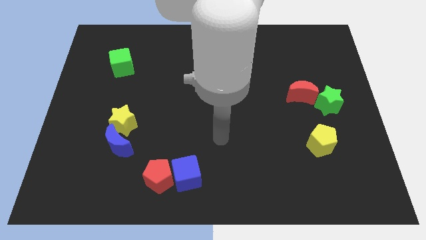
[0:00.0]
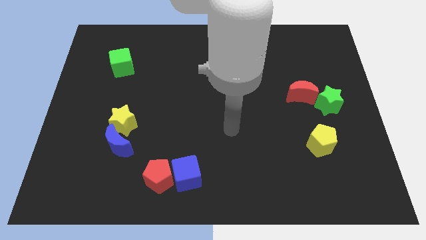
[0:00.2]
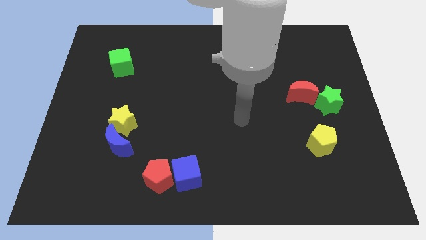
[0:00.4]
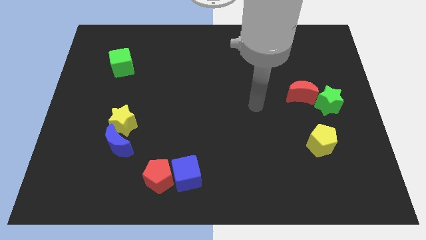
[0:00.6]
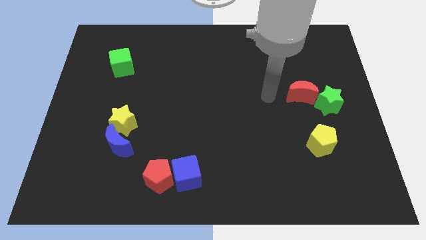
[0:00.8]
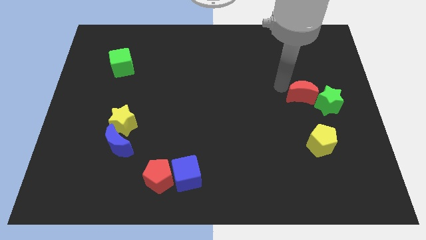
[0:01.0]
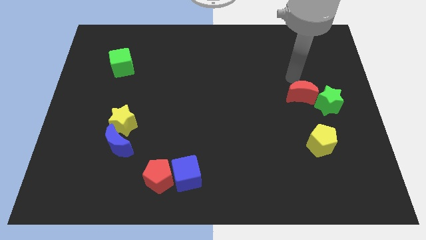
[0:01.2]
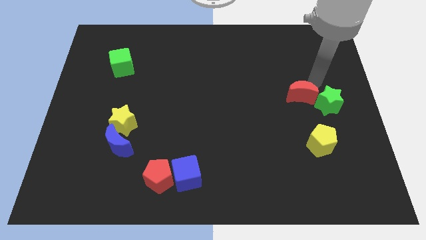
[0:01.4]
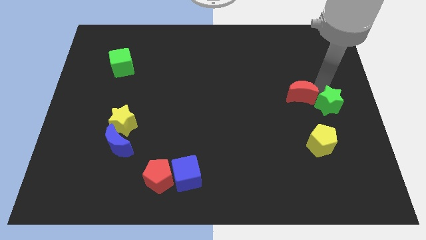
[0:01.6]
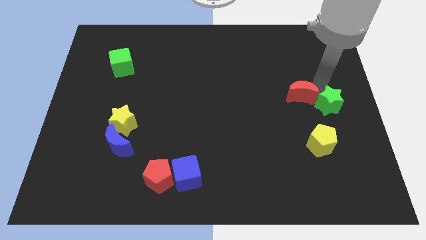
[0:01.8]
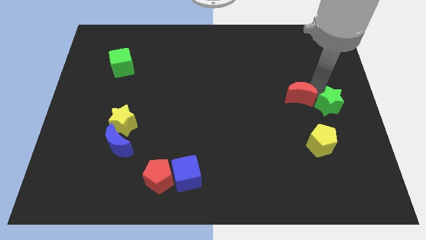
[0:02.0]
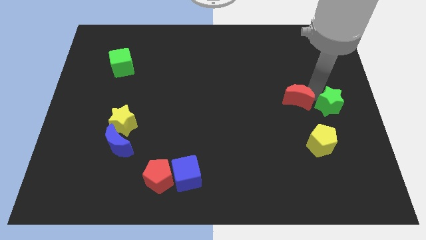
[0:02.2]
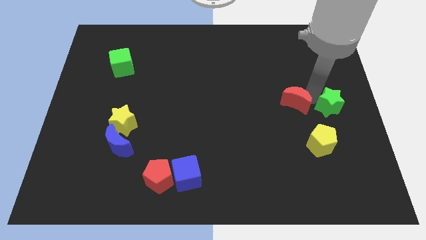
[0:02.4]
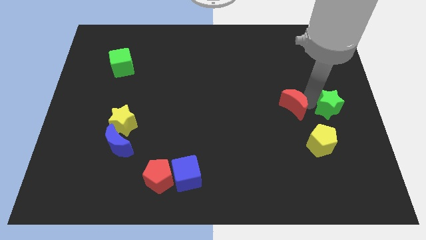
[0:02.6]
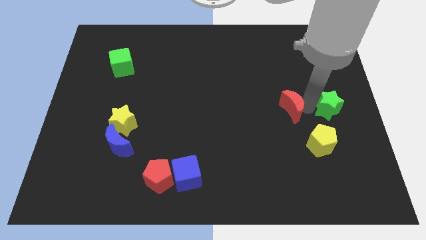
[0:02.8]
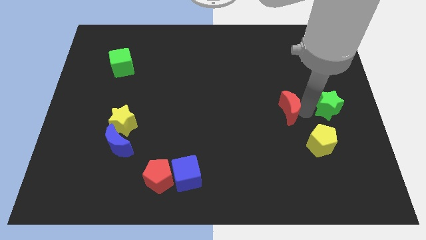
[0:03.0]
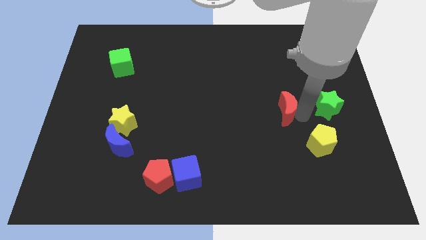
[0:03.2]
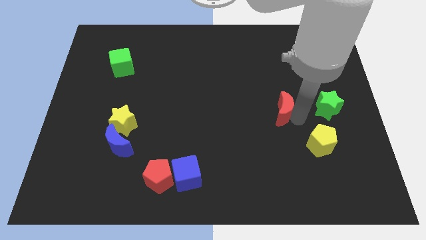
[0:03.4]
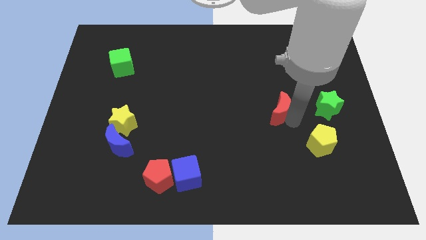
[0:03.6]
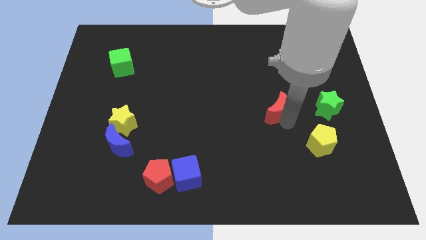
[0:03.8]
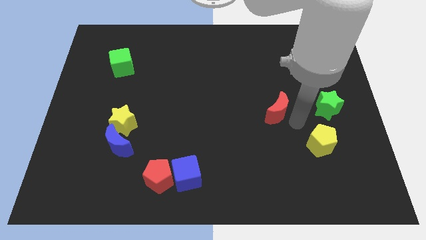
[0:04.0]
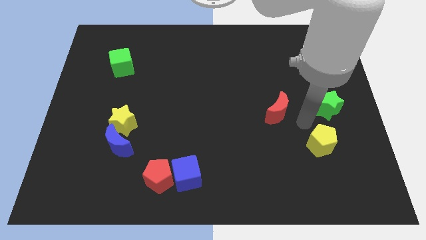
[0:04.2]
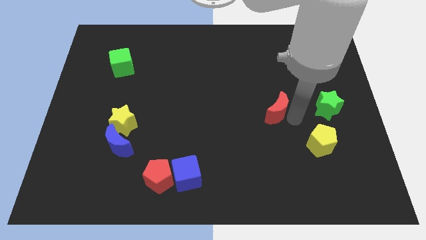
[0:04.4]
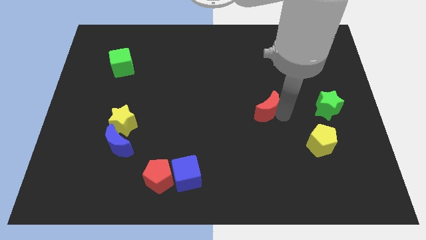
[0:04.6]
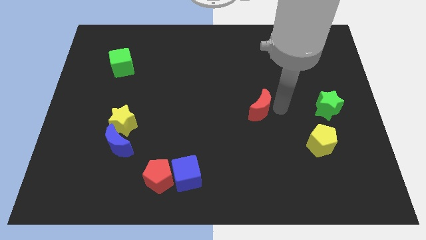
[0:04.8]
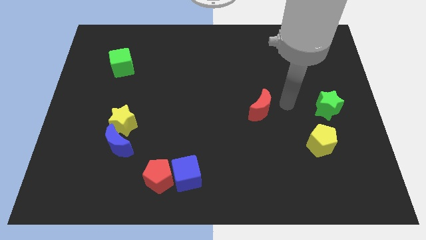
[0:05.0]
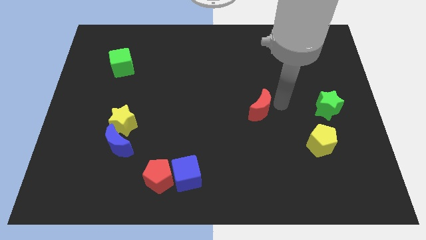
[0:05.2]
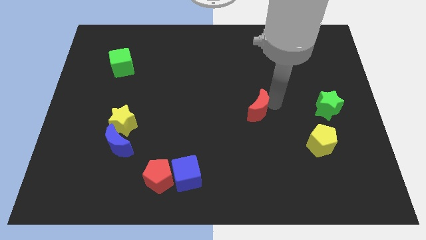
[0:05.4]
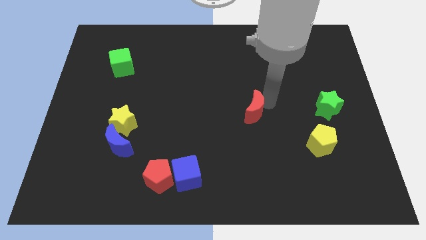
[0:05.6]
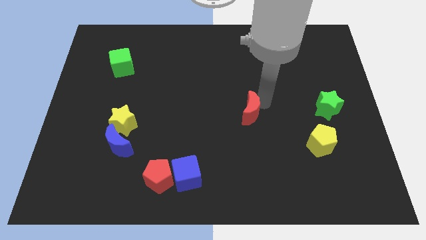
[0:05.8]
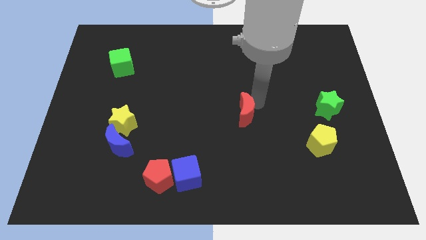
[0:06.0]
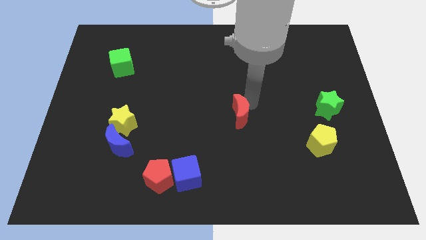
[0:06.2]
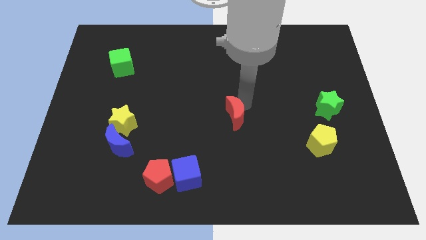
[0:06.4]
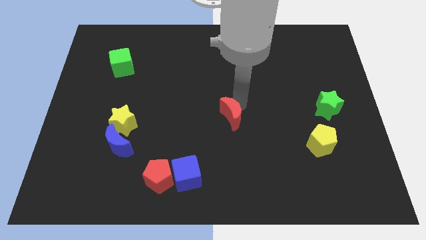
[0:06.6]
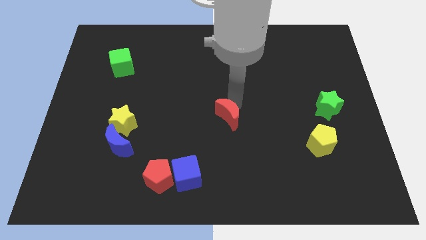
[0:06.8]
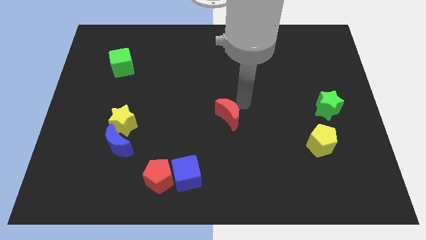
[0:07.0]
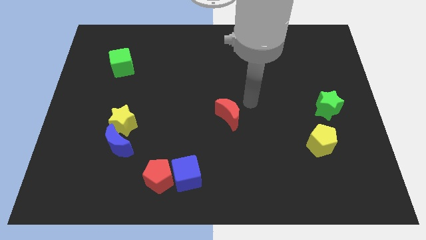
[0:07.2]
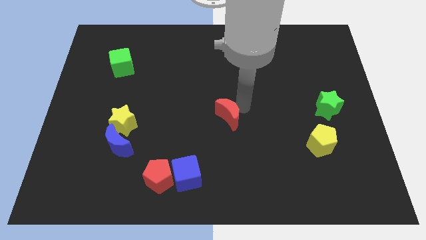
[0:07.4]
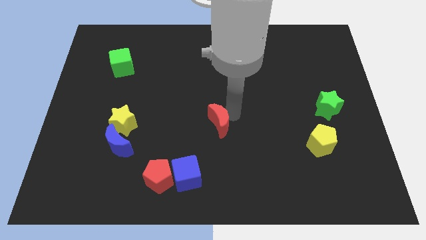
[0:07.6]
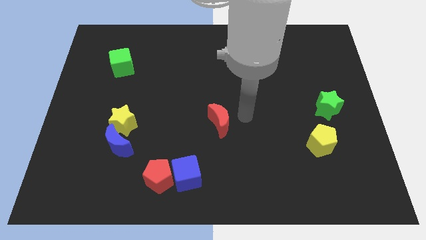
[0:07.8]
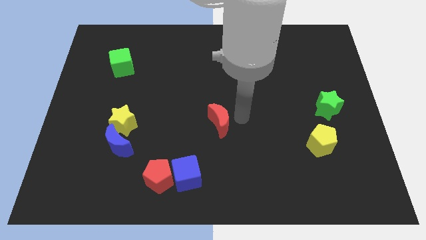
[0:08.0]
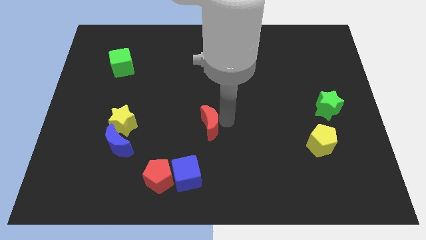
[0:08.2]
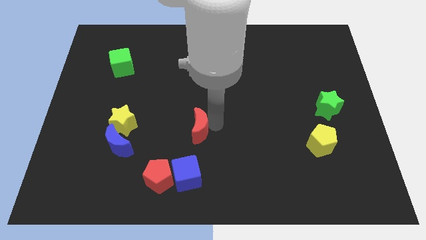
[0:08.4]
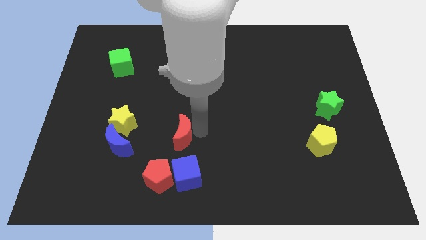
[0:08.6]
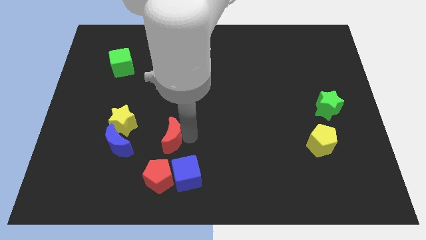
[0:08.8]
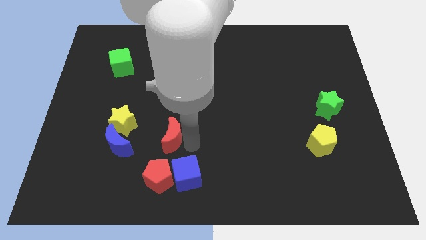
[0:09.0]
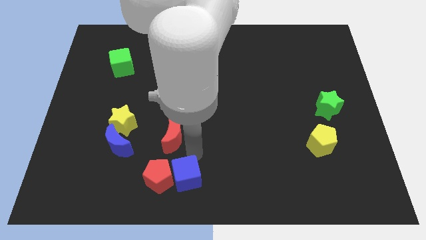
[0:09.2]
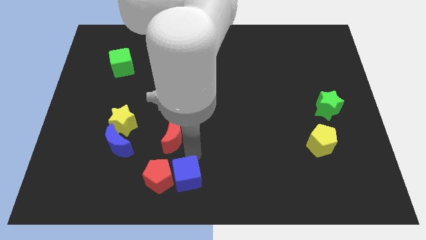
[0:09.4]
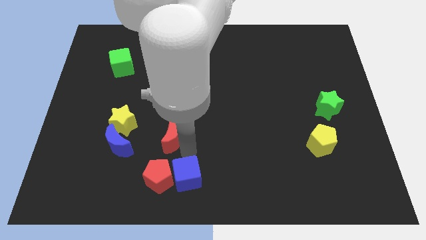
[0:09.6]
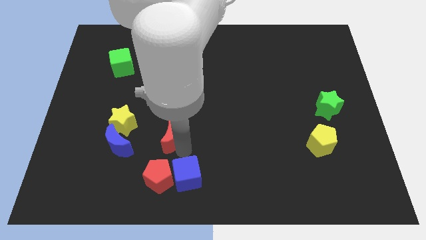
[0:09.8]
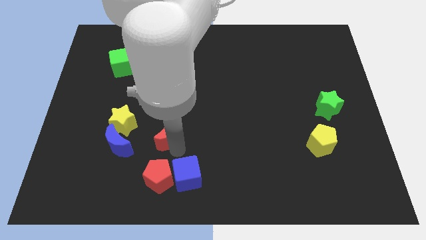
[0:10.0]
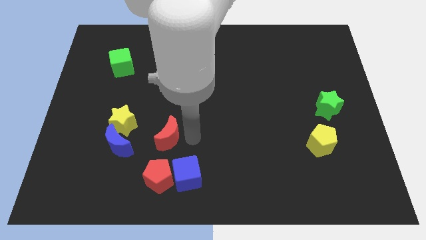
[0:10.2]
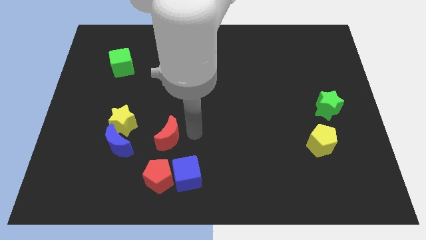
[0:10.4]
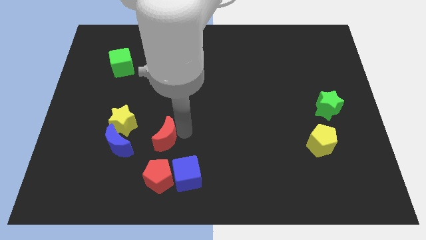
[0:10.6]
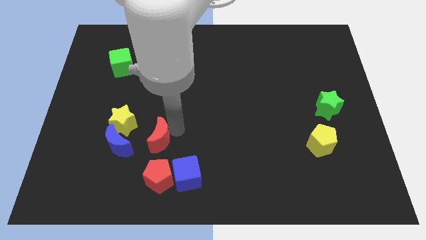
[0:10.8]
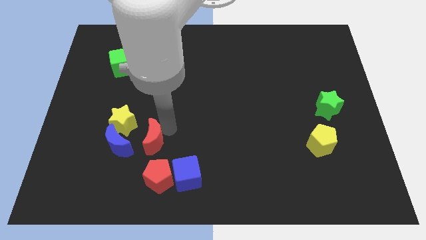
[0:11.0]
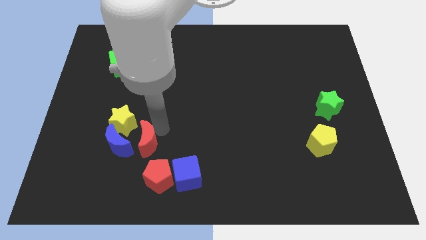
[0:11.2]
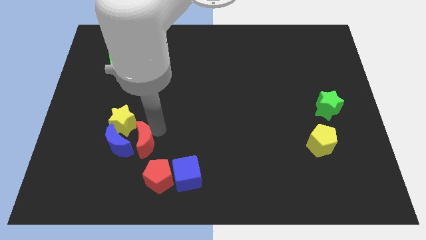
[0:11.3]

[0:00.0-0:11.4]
slide the red moon towards the blue moon

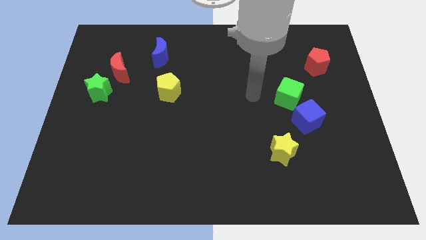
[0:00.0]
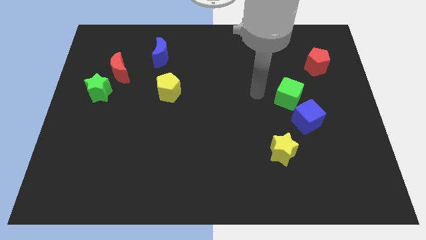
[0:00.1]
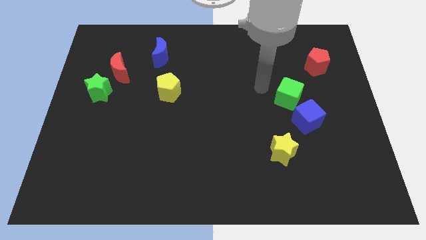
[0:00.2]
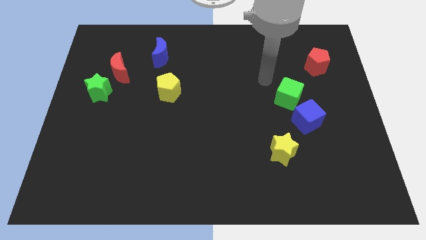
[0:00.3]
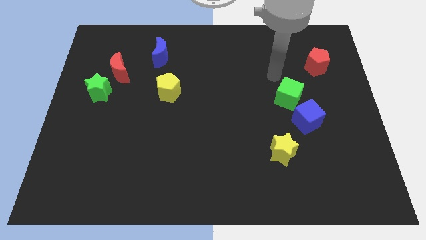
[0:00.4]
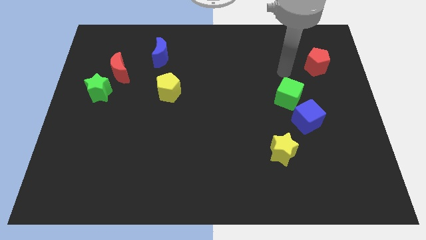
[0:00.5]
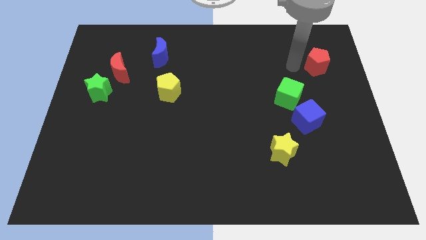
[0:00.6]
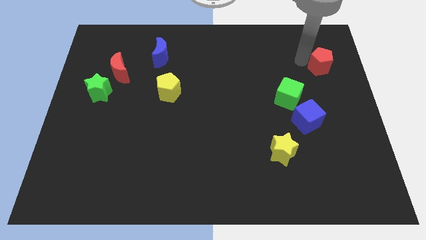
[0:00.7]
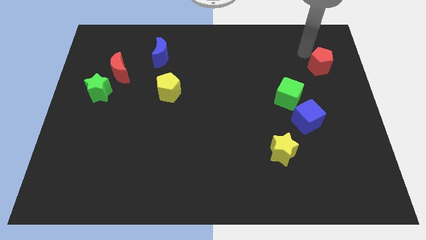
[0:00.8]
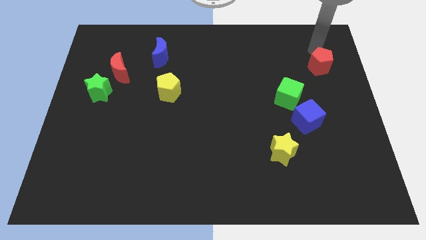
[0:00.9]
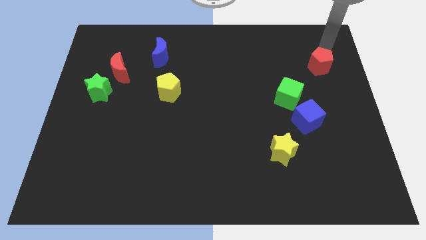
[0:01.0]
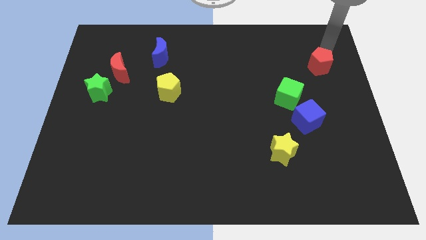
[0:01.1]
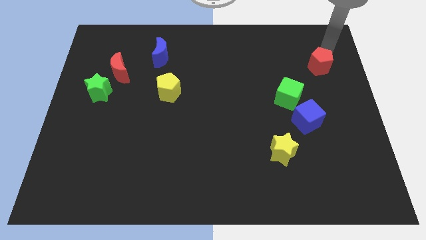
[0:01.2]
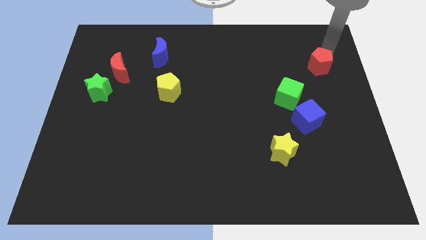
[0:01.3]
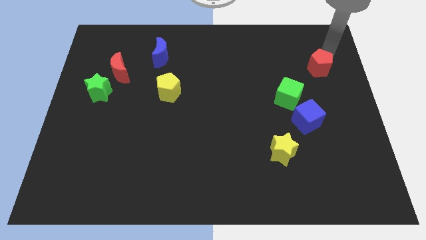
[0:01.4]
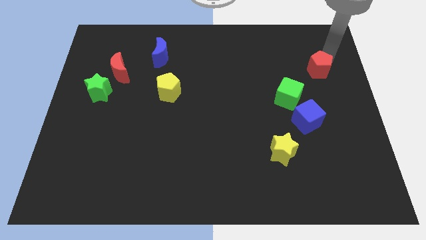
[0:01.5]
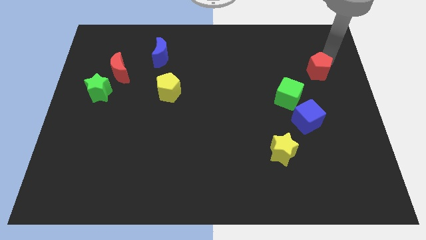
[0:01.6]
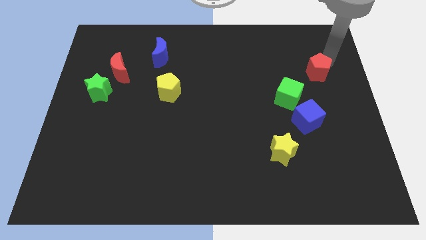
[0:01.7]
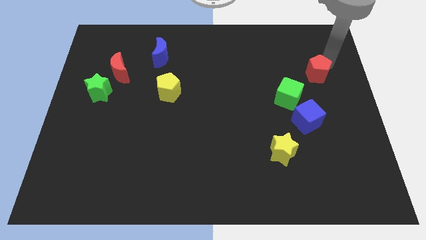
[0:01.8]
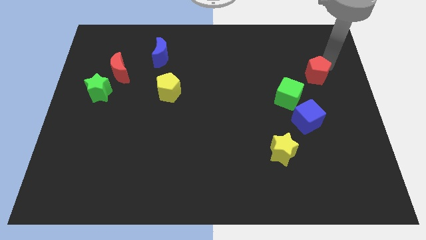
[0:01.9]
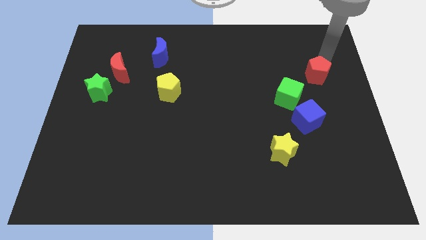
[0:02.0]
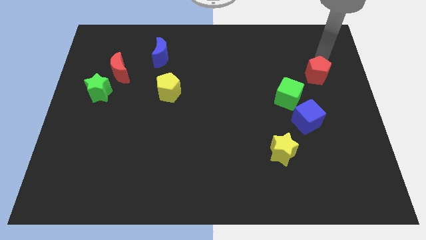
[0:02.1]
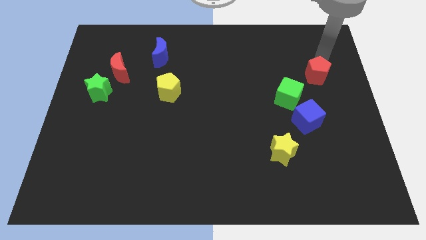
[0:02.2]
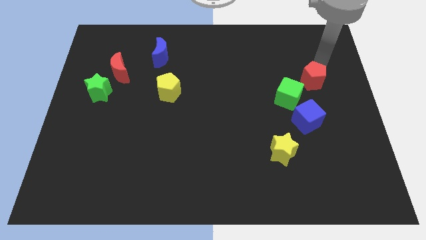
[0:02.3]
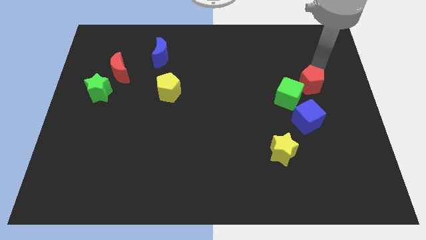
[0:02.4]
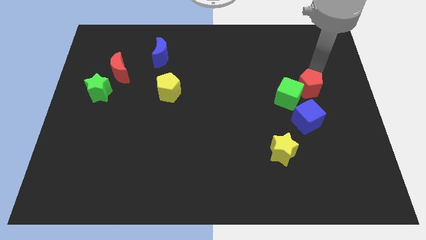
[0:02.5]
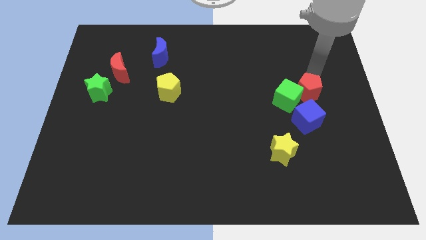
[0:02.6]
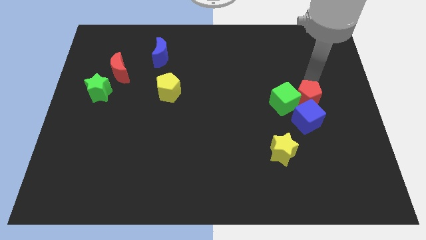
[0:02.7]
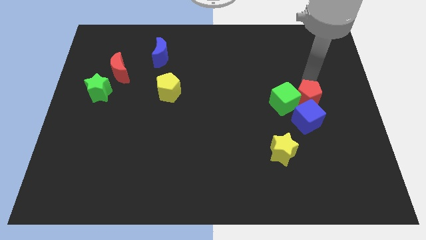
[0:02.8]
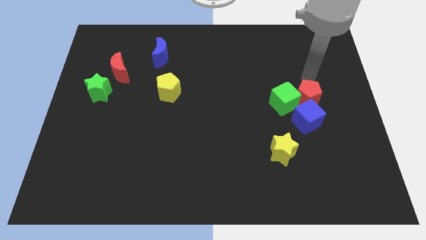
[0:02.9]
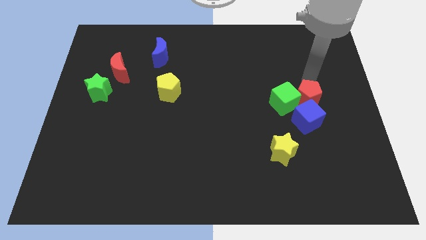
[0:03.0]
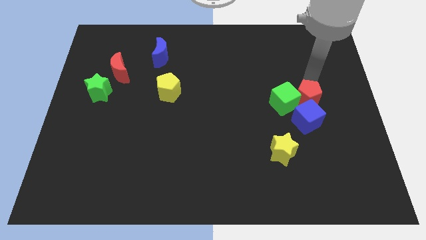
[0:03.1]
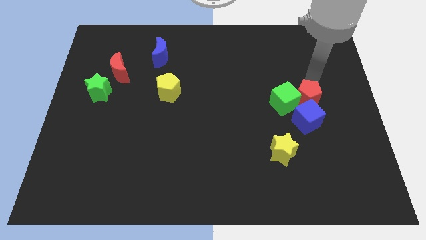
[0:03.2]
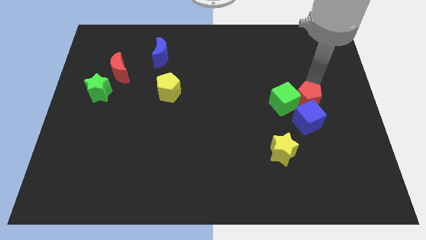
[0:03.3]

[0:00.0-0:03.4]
slide the red pentagon to the blue cube
